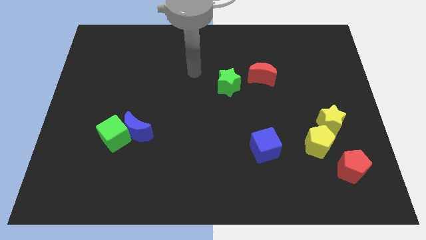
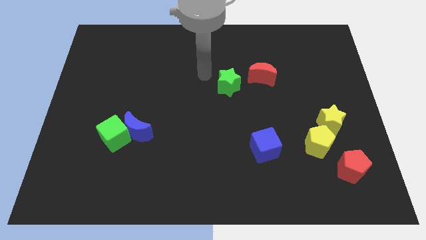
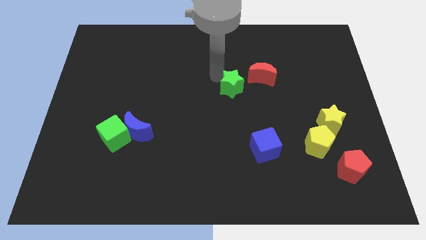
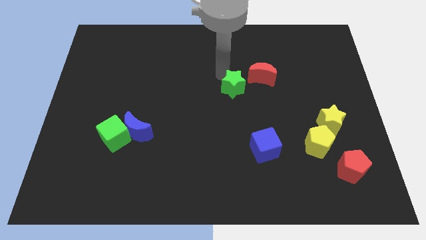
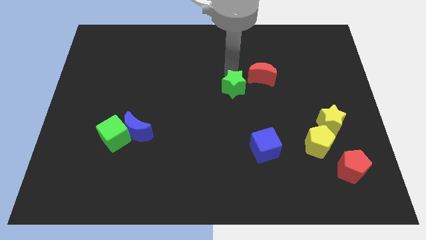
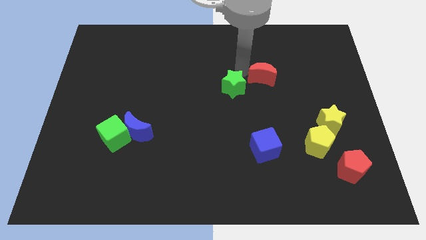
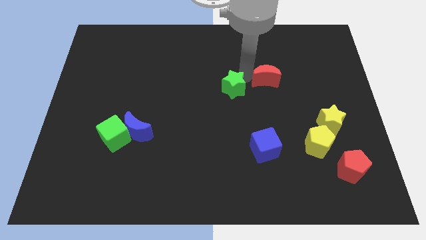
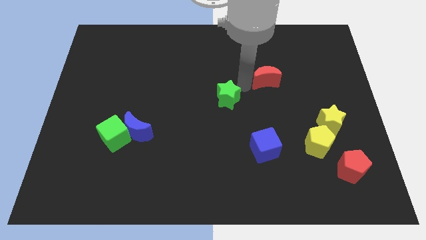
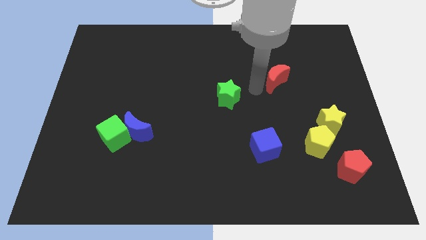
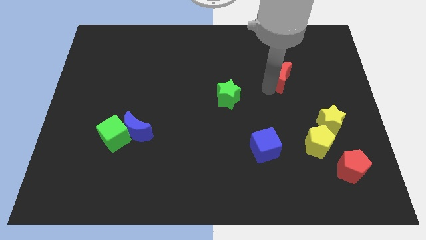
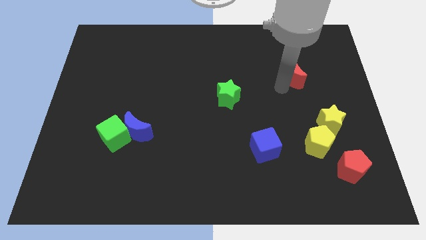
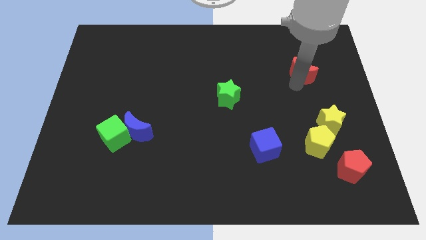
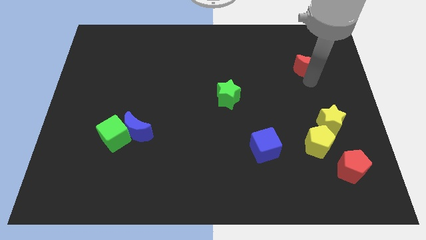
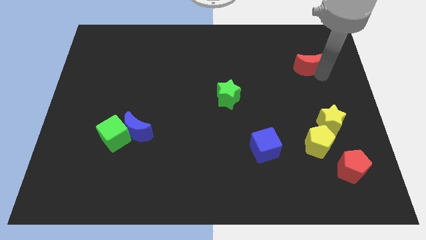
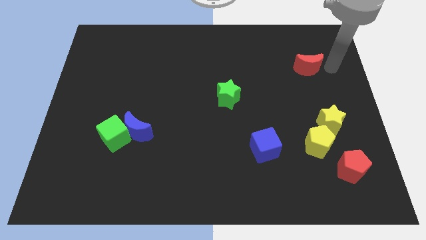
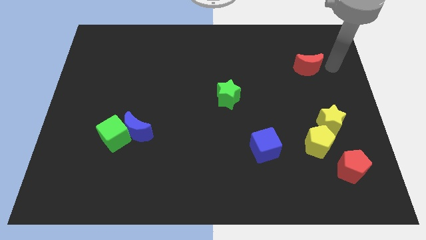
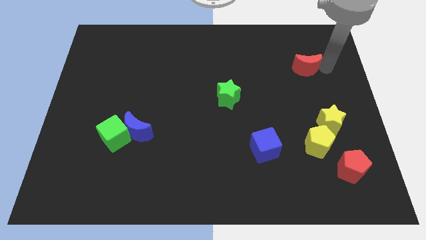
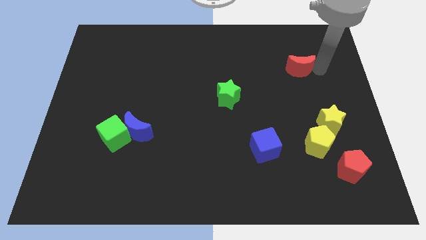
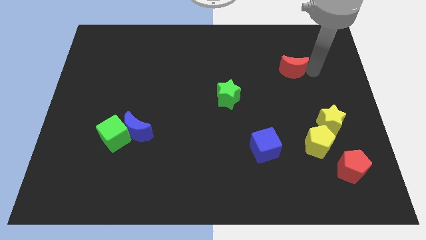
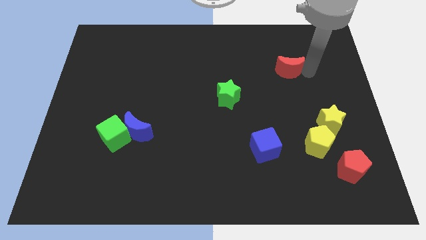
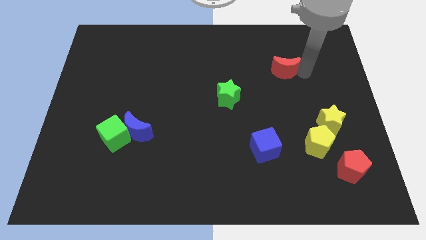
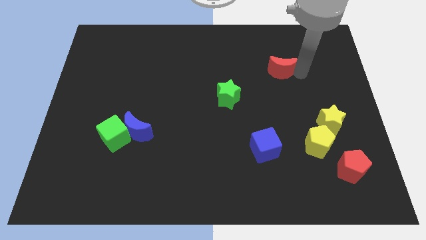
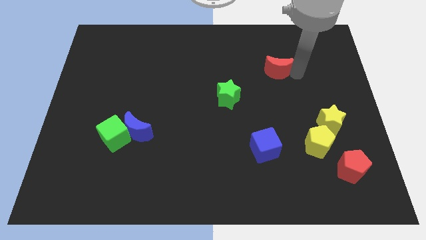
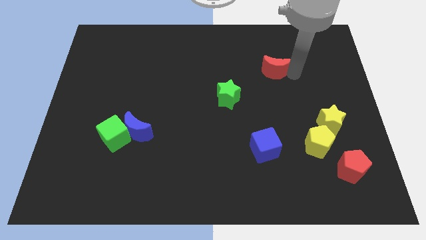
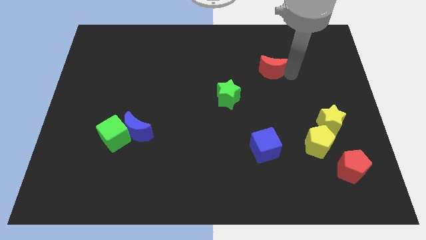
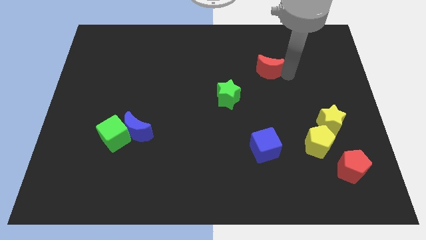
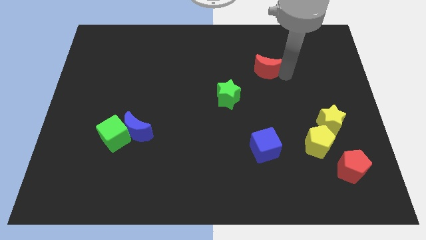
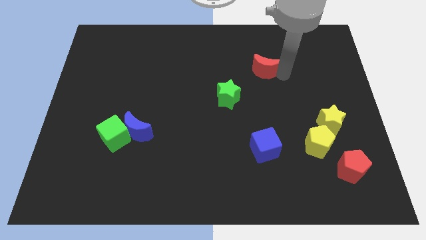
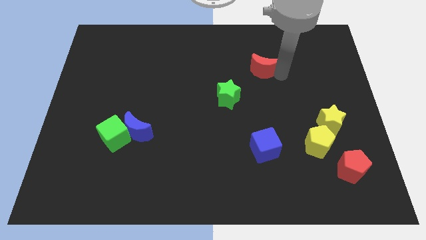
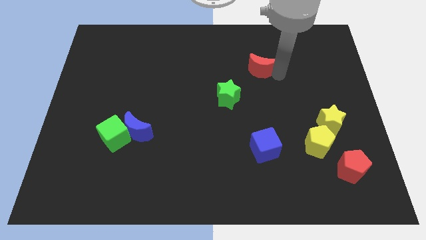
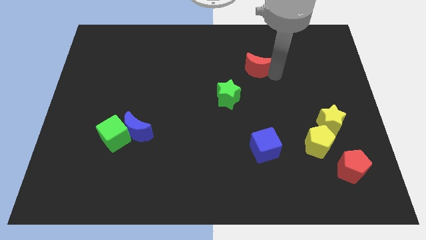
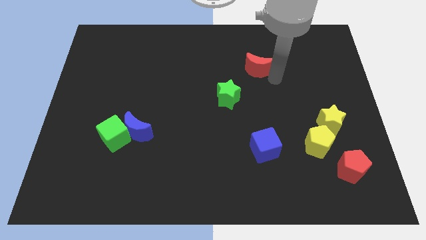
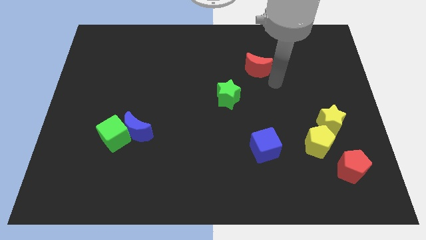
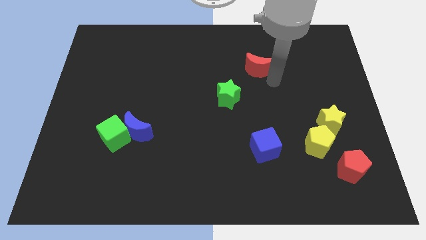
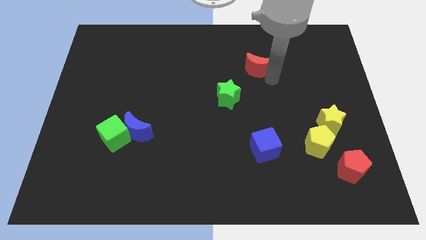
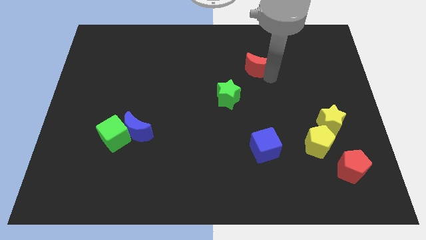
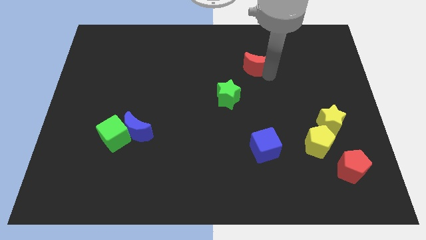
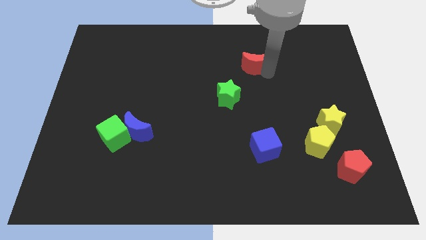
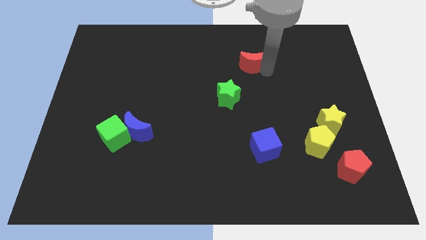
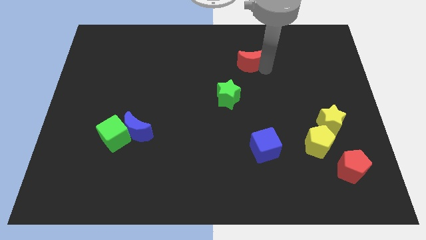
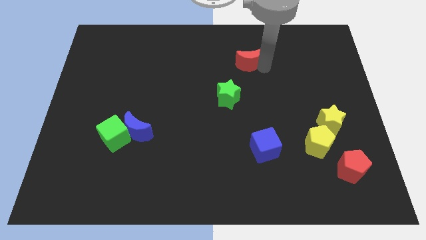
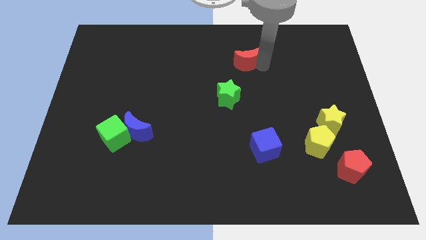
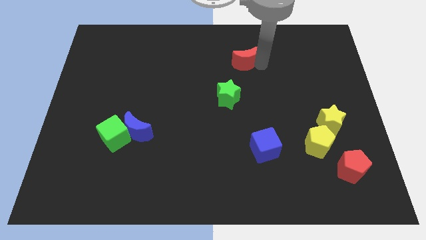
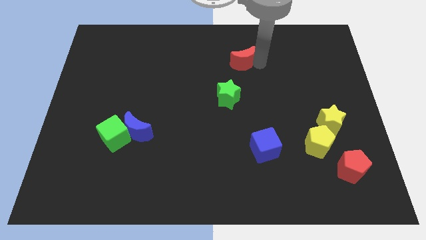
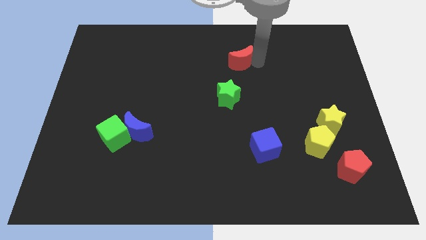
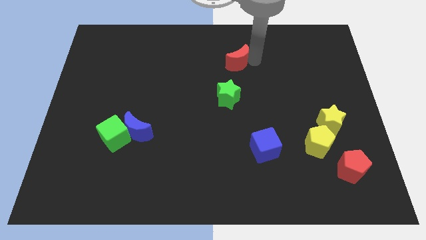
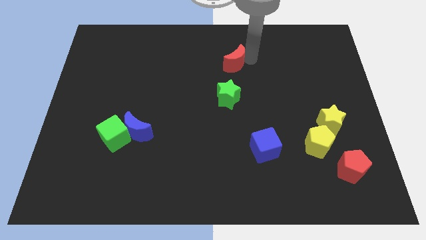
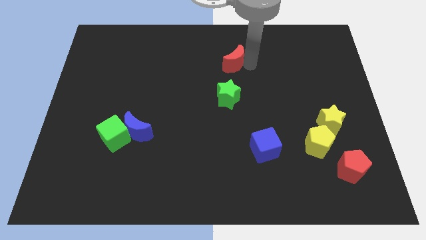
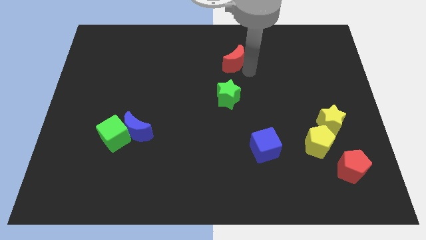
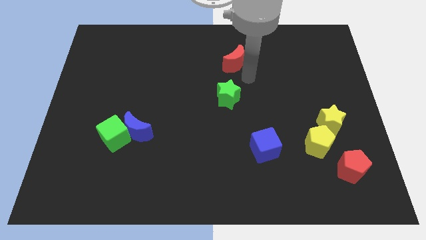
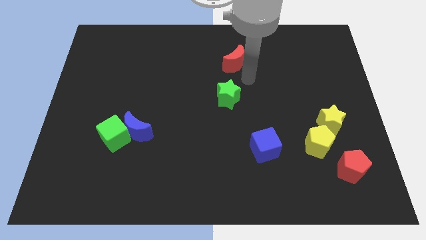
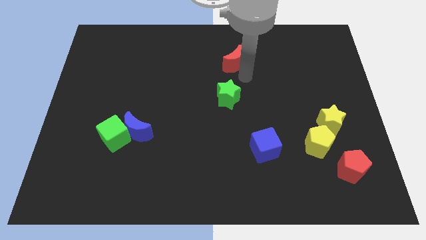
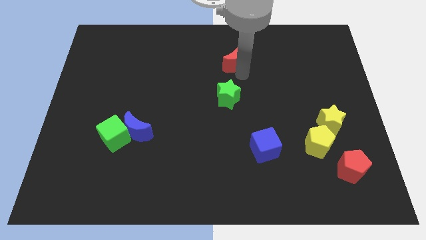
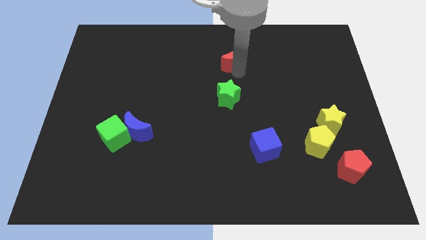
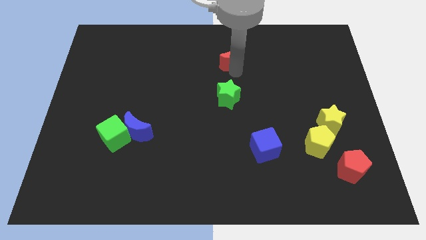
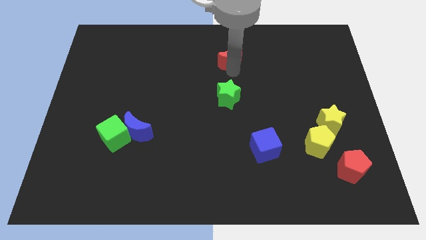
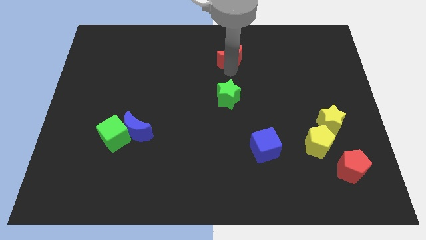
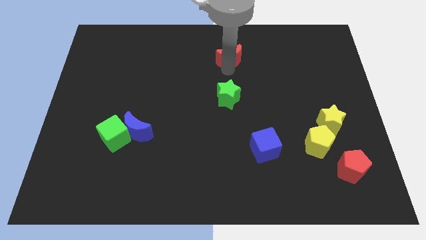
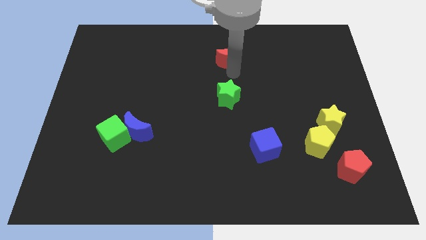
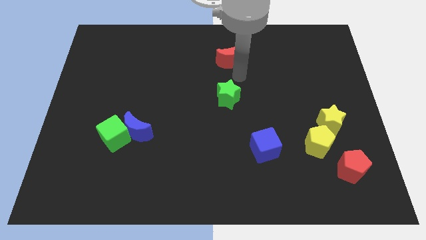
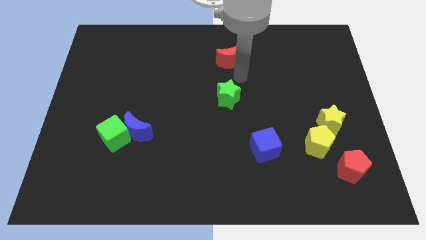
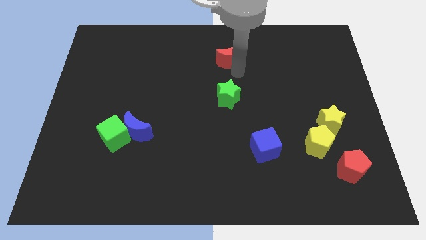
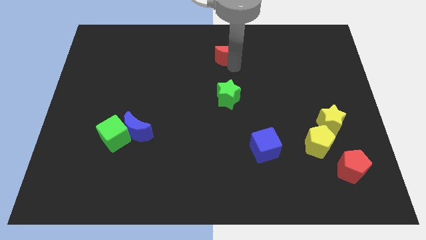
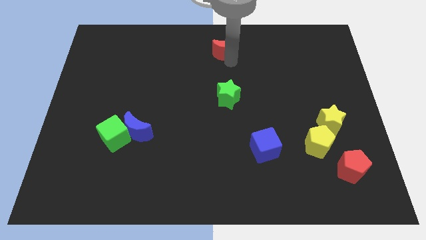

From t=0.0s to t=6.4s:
move the red moon to the top side
